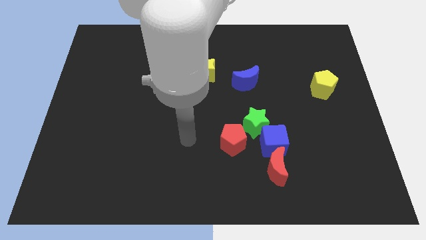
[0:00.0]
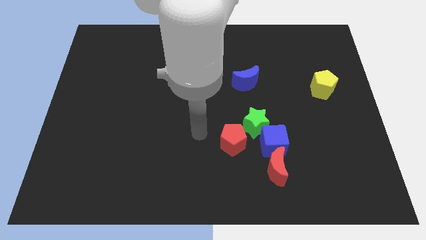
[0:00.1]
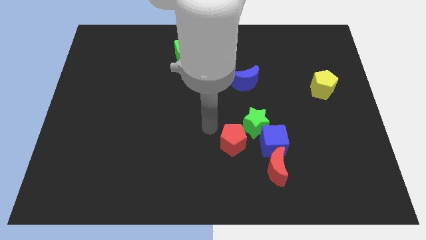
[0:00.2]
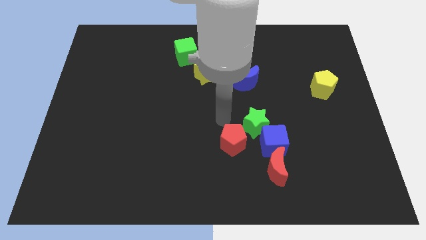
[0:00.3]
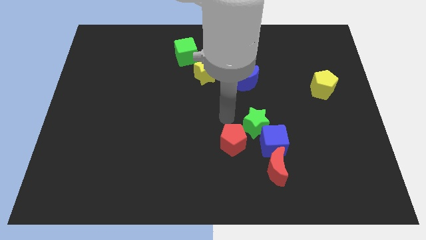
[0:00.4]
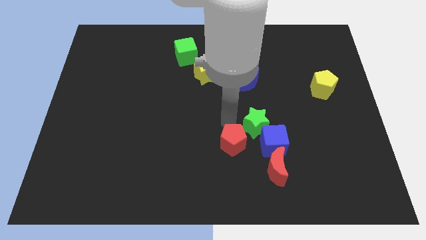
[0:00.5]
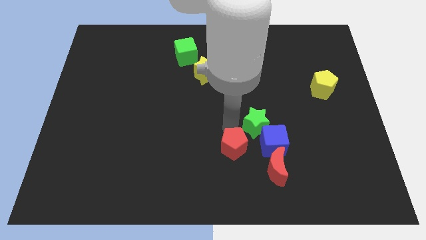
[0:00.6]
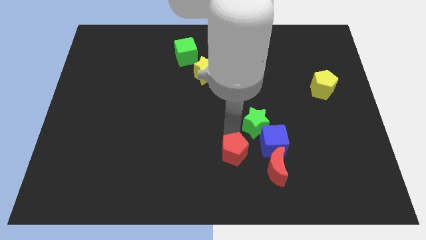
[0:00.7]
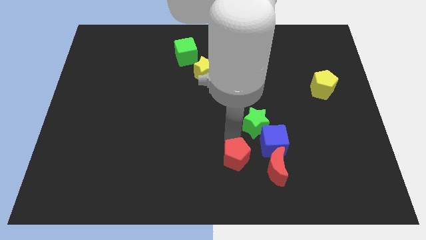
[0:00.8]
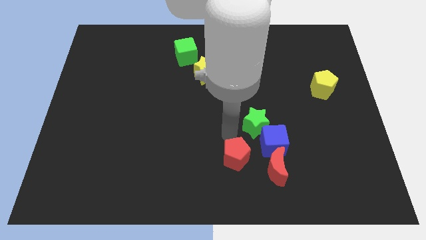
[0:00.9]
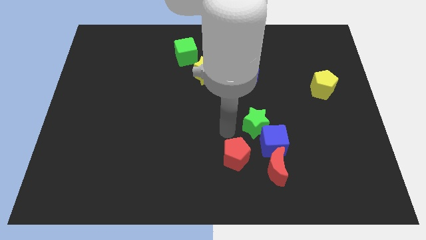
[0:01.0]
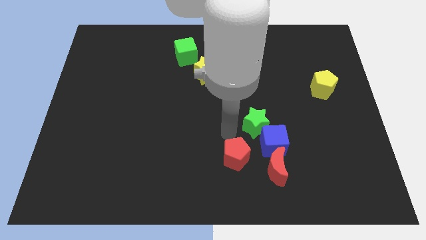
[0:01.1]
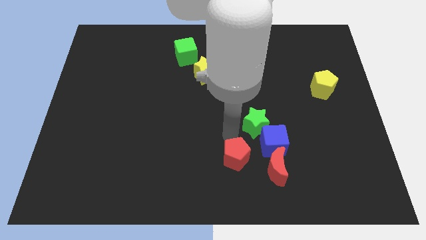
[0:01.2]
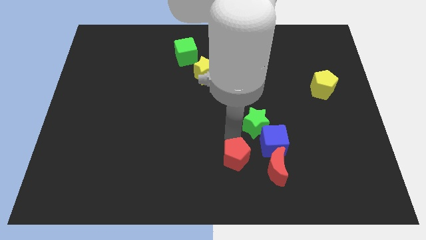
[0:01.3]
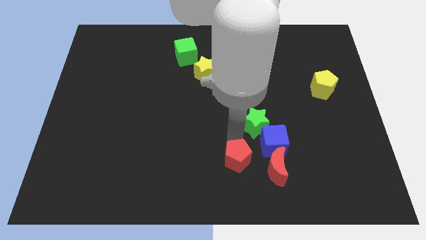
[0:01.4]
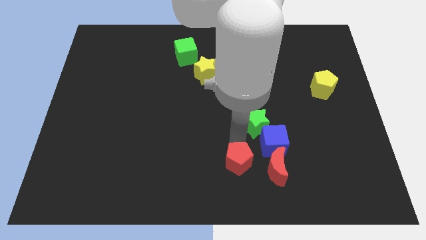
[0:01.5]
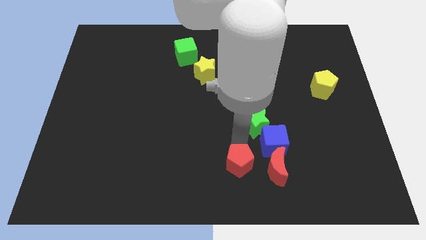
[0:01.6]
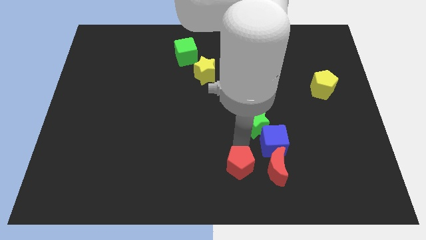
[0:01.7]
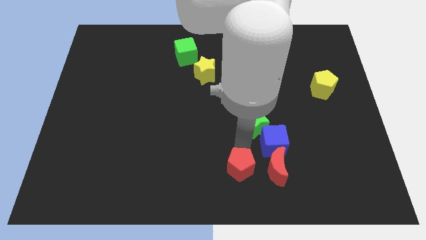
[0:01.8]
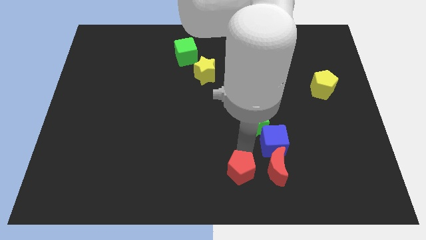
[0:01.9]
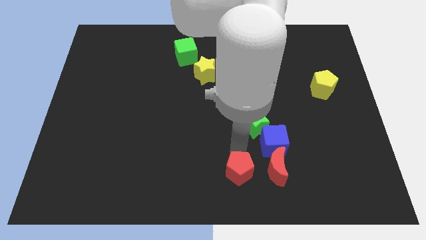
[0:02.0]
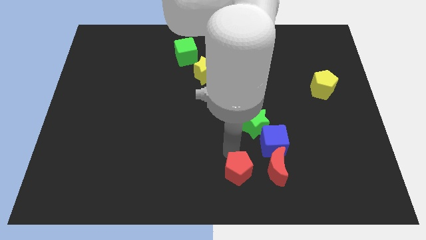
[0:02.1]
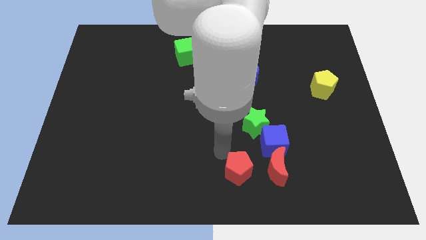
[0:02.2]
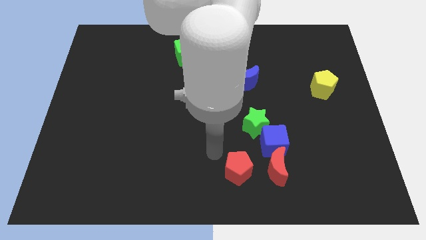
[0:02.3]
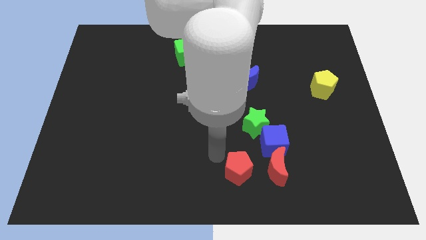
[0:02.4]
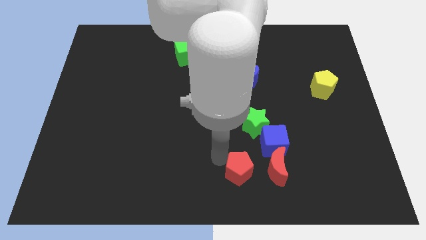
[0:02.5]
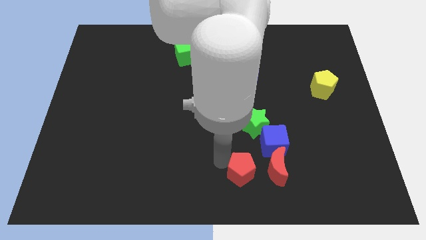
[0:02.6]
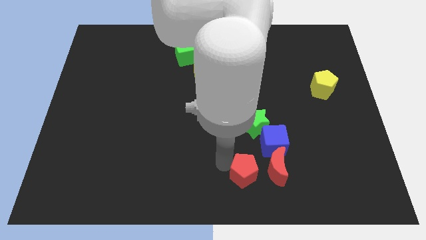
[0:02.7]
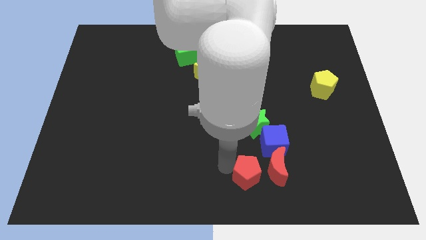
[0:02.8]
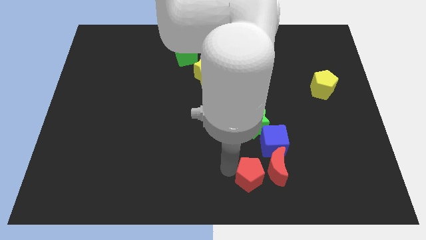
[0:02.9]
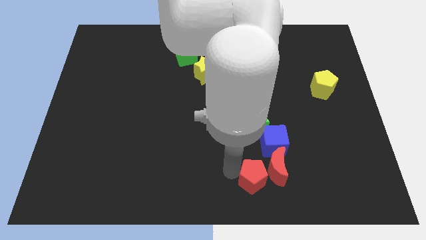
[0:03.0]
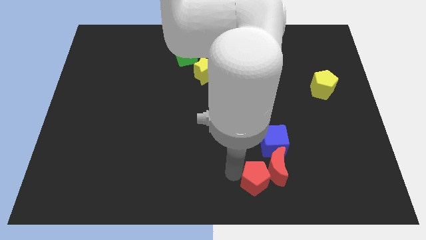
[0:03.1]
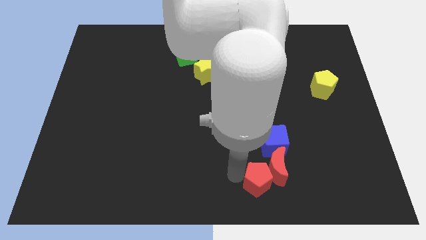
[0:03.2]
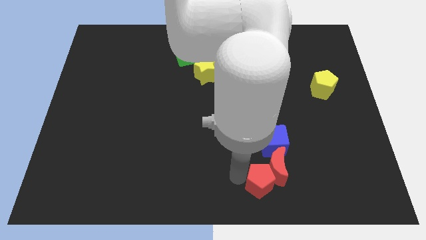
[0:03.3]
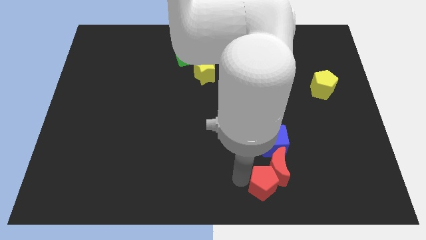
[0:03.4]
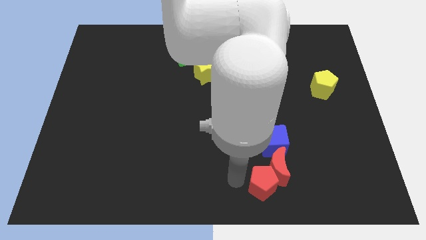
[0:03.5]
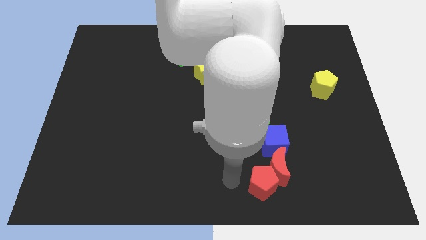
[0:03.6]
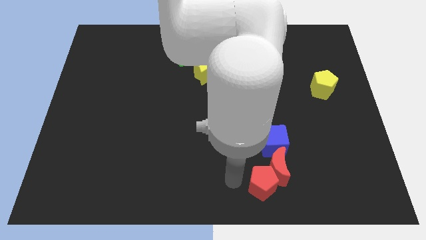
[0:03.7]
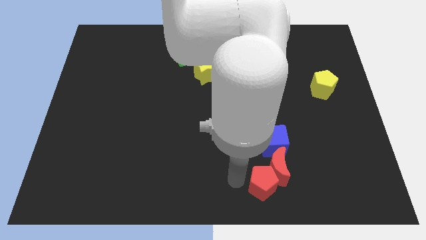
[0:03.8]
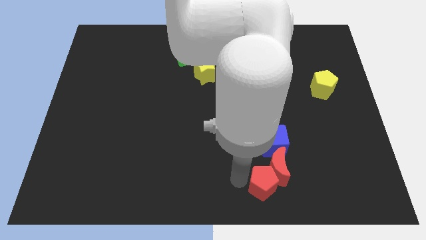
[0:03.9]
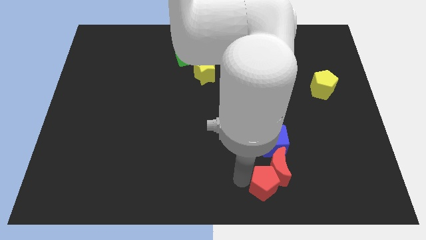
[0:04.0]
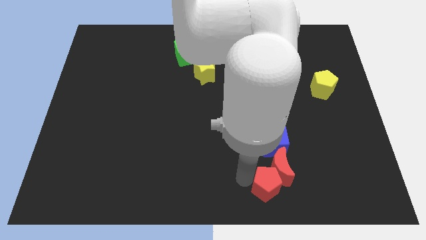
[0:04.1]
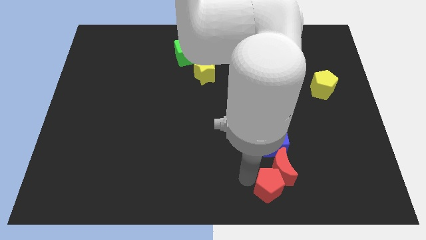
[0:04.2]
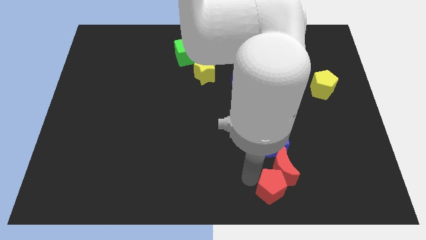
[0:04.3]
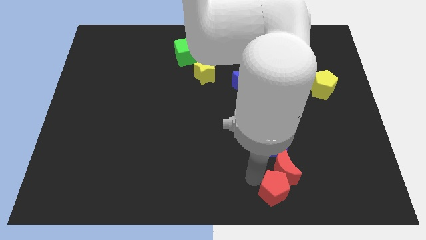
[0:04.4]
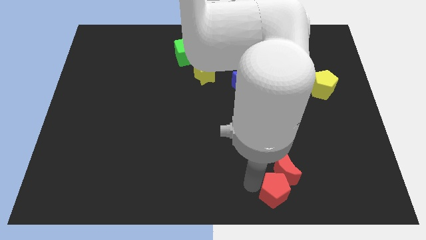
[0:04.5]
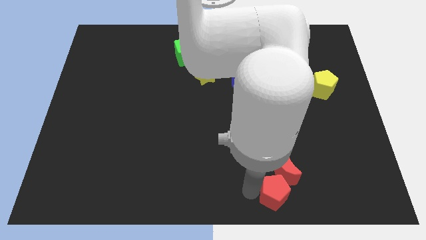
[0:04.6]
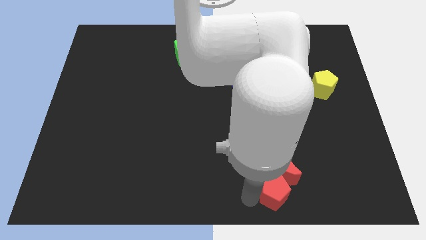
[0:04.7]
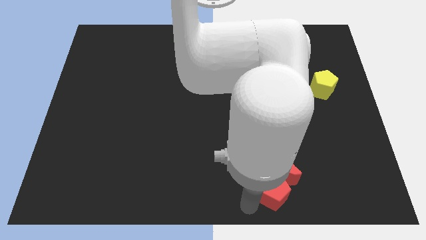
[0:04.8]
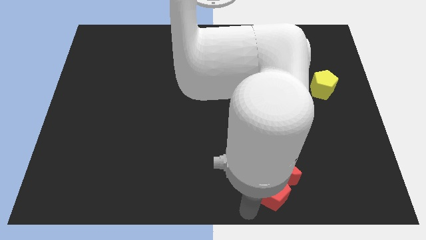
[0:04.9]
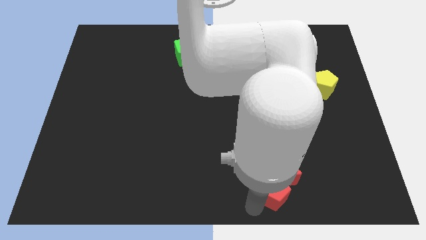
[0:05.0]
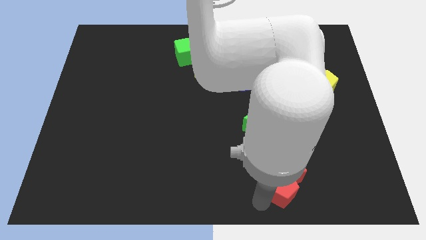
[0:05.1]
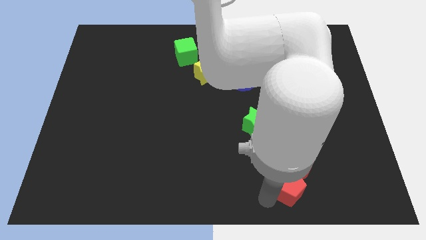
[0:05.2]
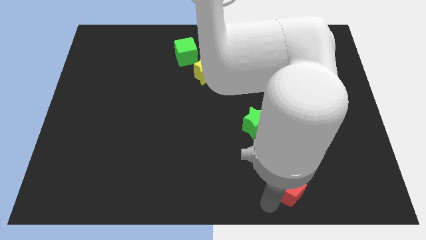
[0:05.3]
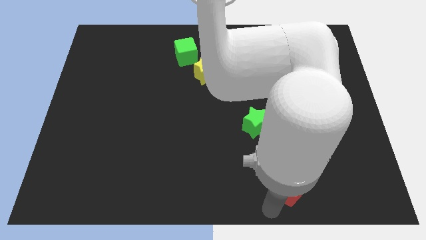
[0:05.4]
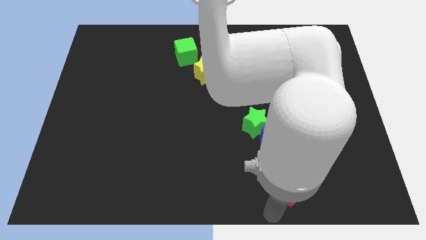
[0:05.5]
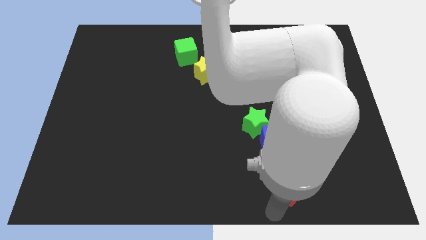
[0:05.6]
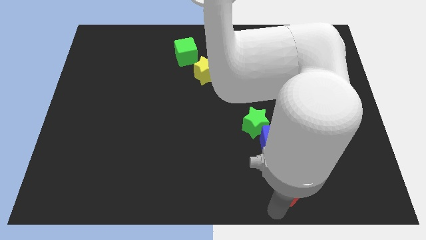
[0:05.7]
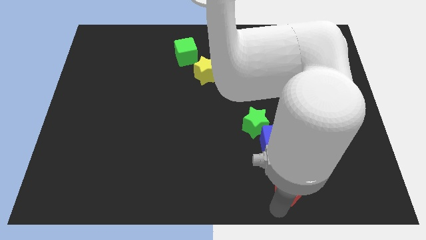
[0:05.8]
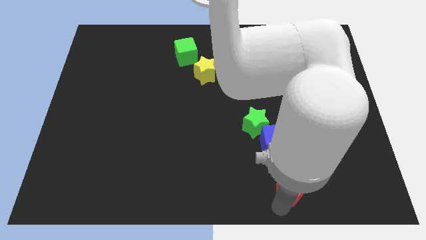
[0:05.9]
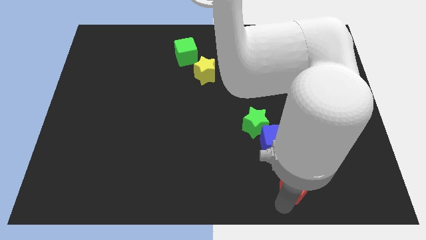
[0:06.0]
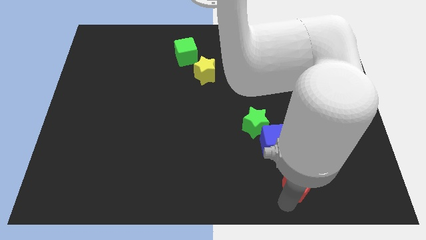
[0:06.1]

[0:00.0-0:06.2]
push the red pentagon right somewhat

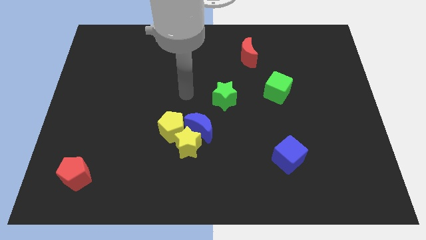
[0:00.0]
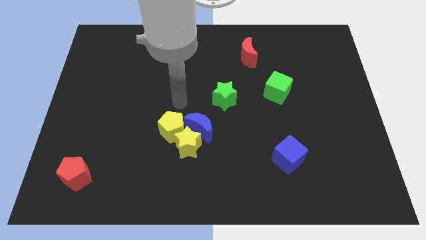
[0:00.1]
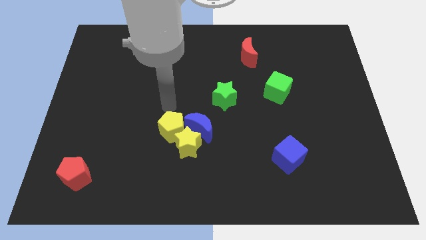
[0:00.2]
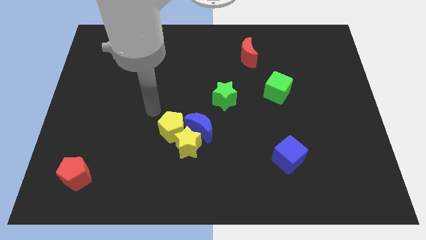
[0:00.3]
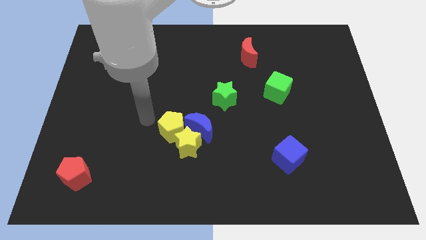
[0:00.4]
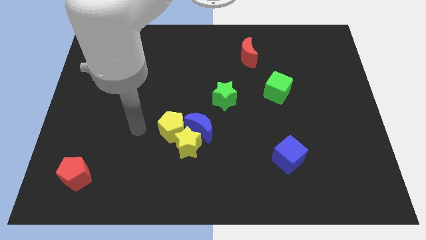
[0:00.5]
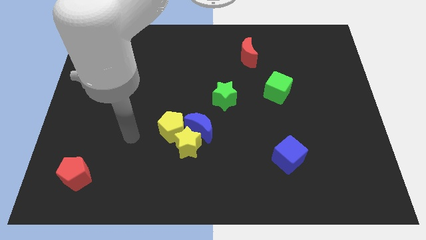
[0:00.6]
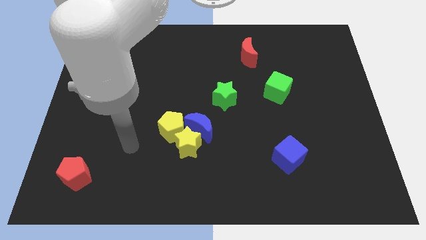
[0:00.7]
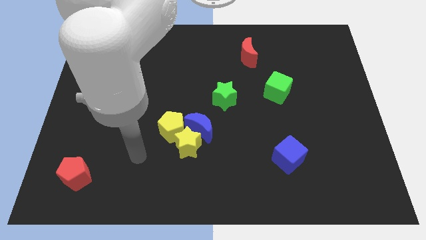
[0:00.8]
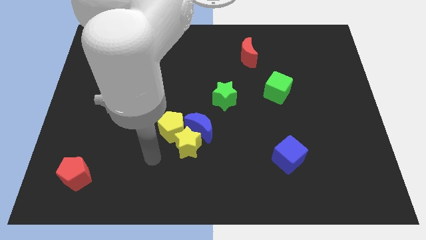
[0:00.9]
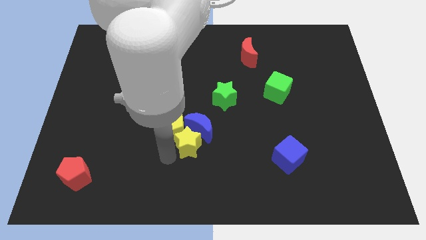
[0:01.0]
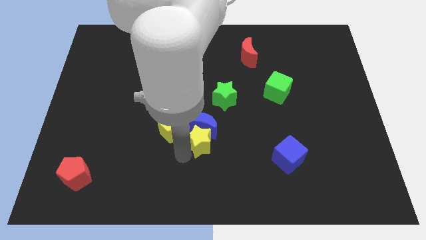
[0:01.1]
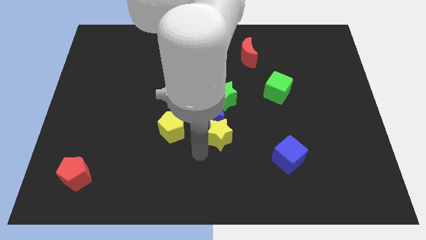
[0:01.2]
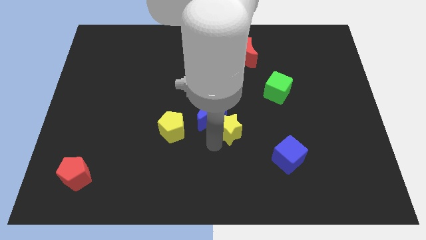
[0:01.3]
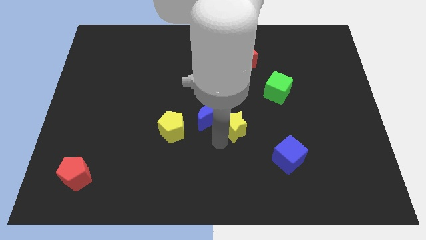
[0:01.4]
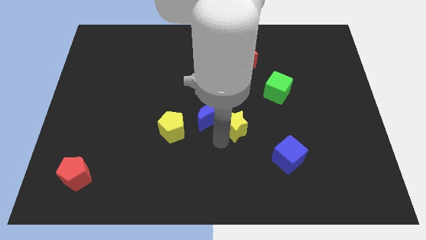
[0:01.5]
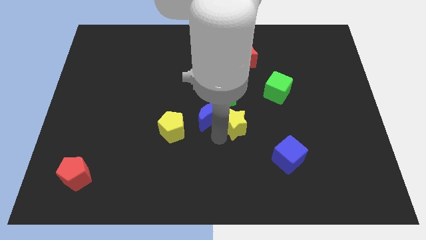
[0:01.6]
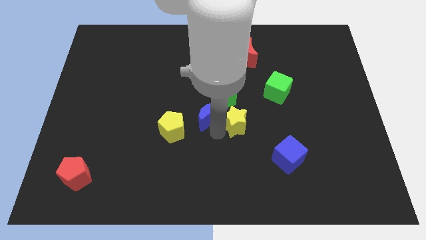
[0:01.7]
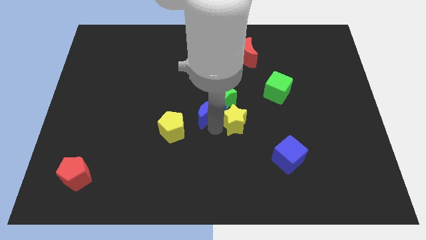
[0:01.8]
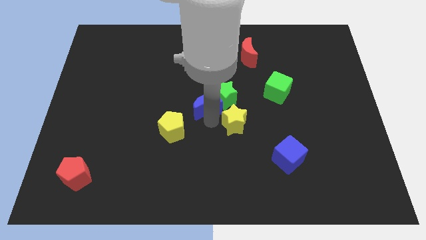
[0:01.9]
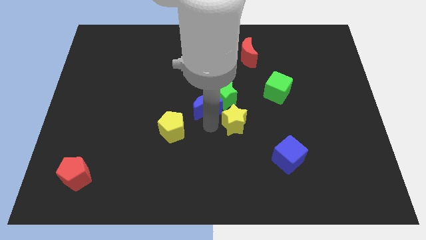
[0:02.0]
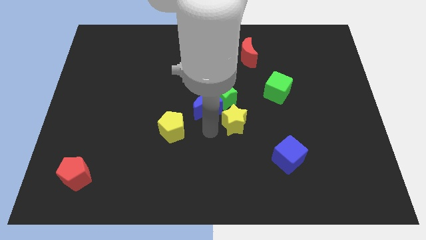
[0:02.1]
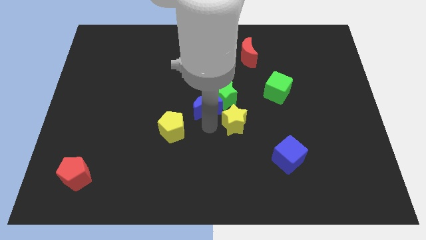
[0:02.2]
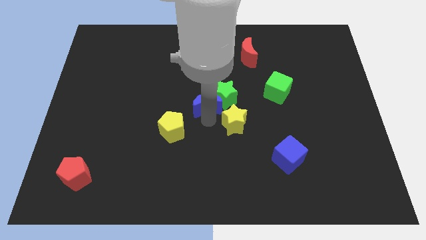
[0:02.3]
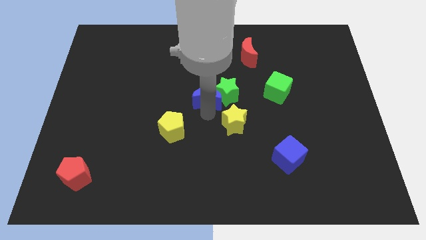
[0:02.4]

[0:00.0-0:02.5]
slightly push the blue moon up
